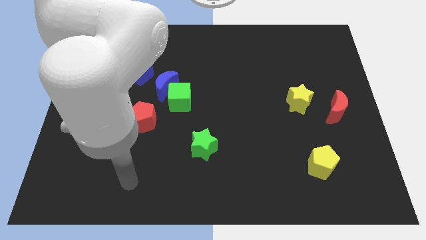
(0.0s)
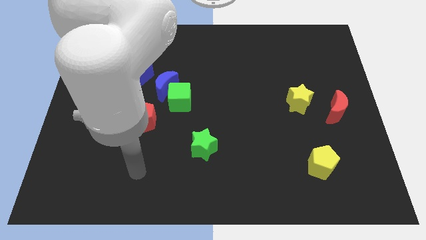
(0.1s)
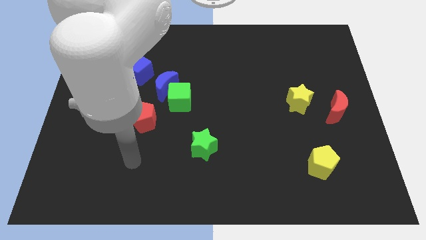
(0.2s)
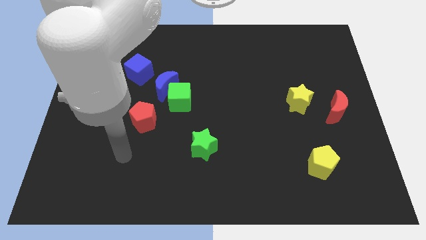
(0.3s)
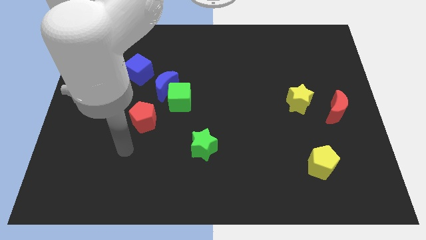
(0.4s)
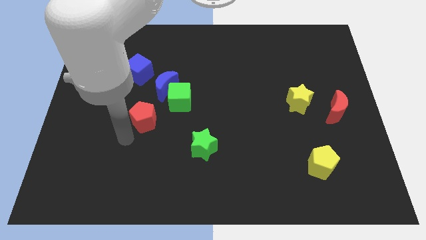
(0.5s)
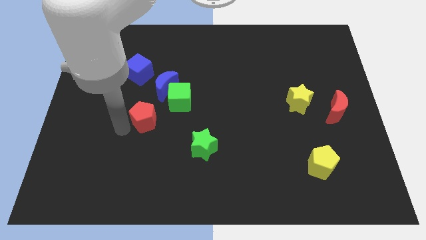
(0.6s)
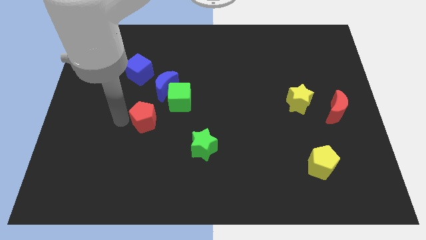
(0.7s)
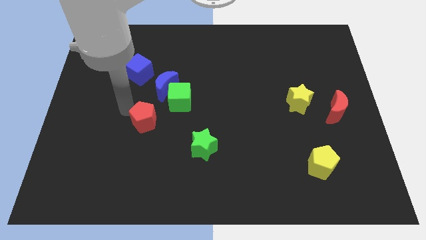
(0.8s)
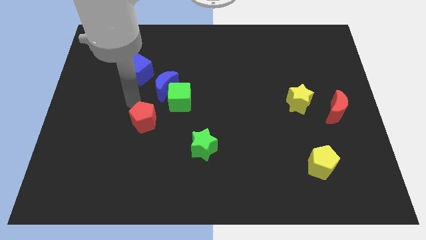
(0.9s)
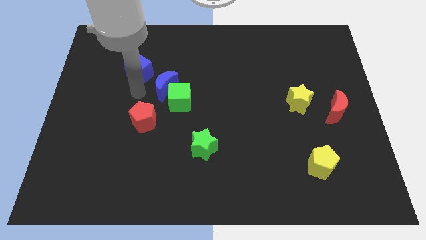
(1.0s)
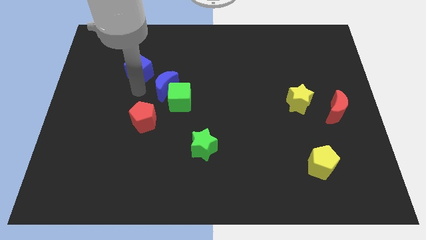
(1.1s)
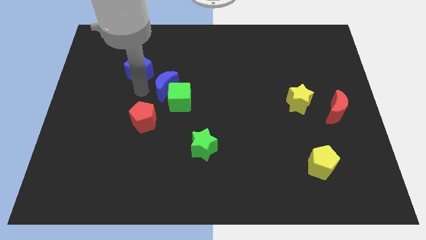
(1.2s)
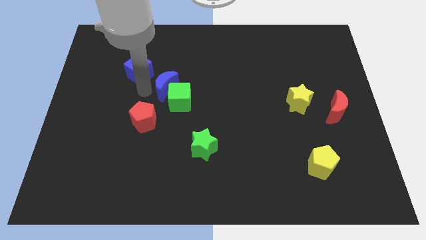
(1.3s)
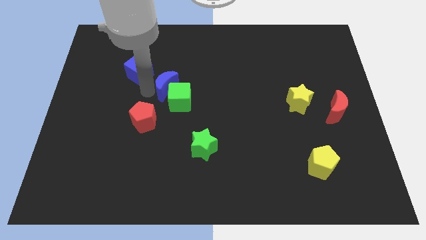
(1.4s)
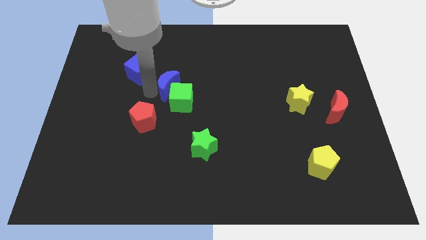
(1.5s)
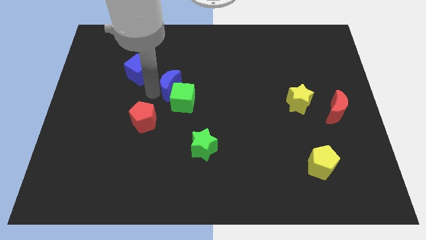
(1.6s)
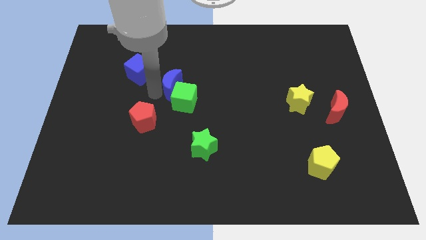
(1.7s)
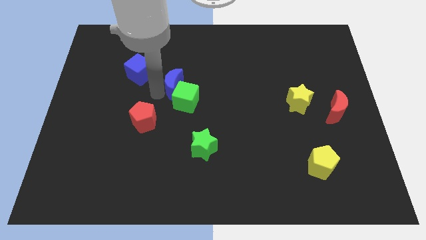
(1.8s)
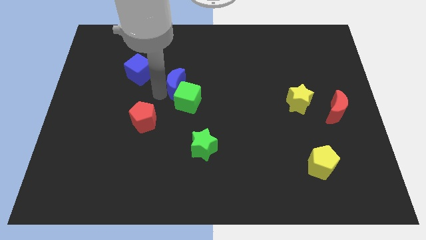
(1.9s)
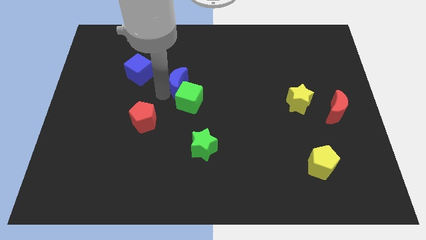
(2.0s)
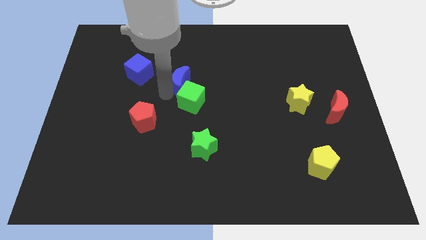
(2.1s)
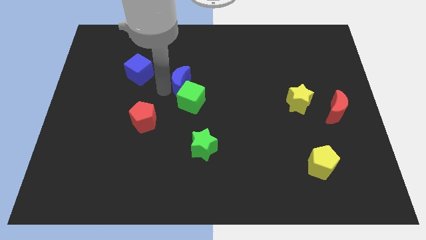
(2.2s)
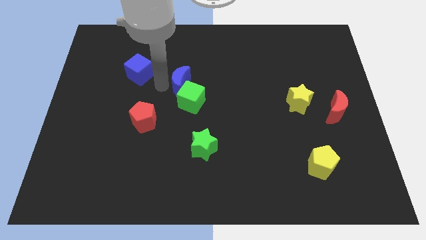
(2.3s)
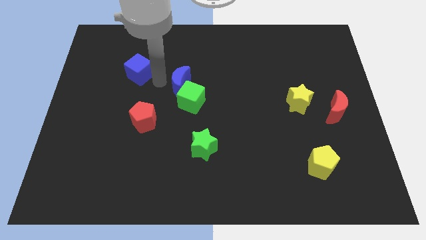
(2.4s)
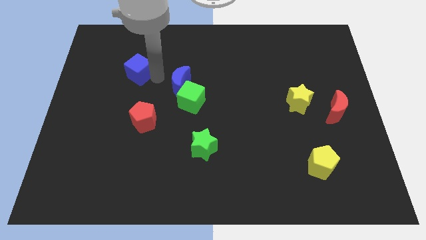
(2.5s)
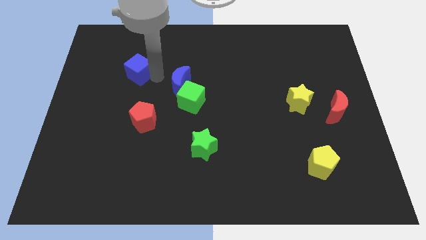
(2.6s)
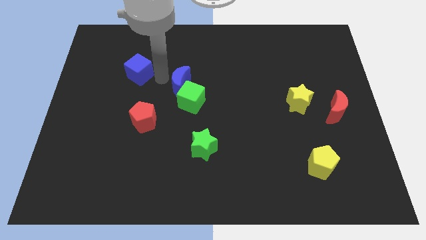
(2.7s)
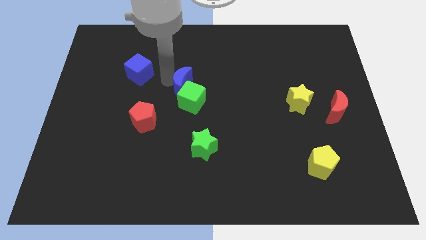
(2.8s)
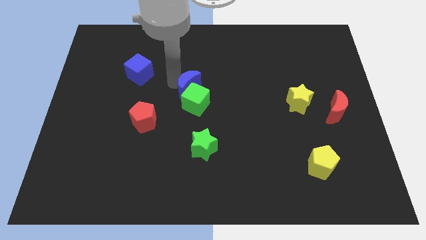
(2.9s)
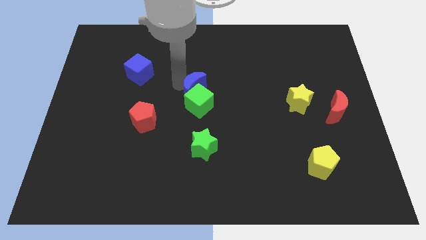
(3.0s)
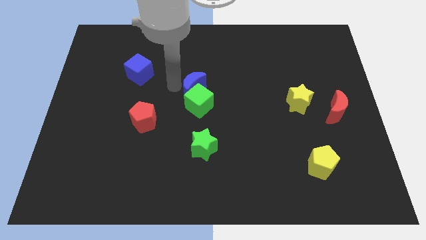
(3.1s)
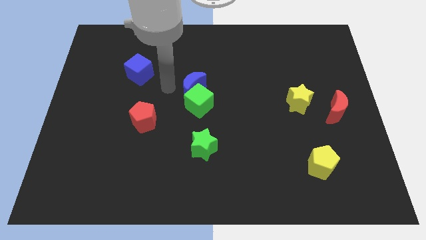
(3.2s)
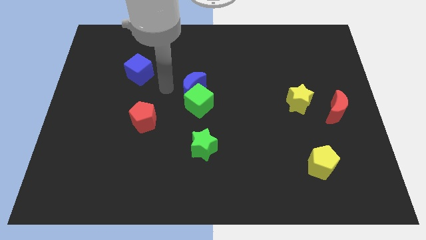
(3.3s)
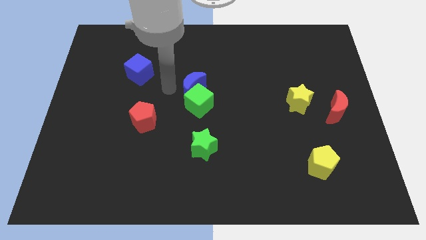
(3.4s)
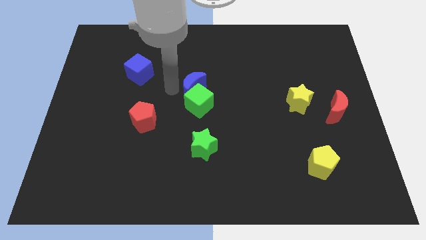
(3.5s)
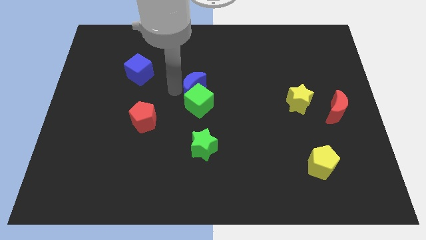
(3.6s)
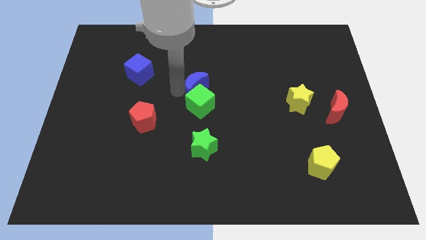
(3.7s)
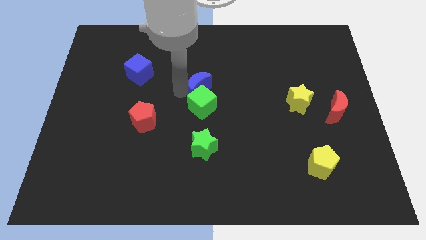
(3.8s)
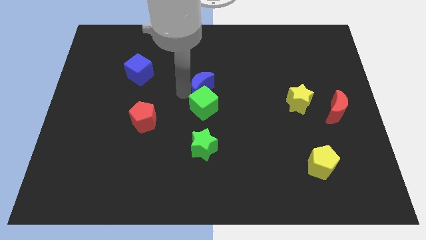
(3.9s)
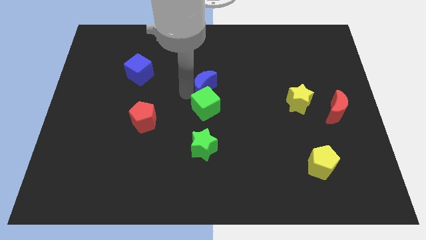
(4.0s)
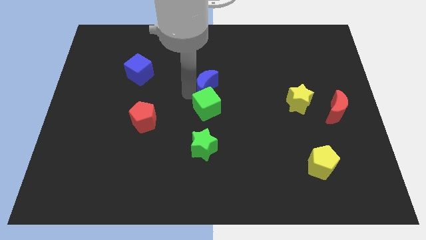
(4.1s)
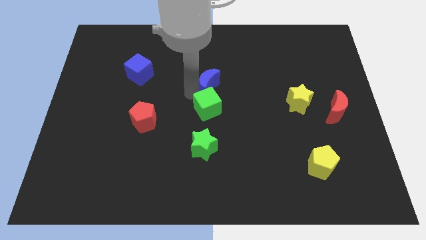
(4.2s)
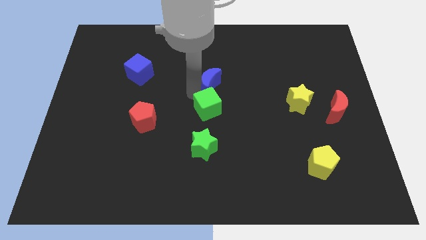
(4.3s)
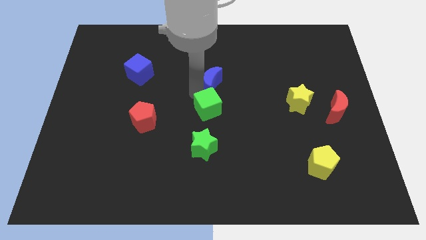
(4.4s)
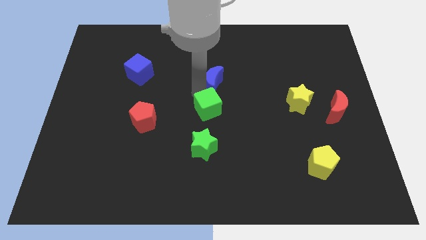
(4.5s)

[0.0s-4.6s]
move the blue moon away from the green cube and blue cube

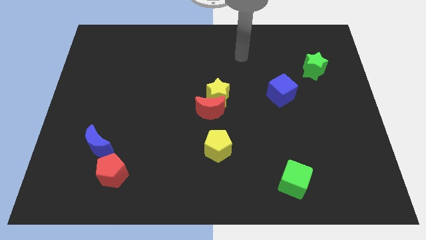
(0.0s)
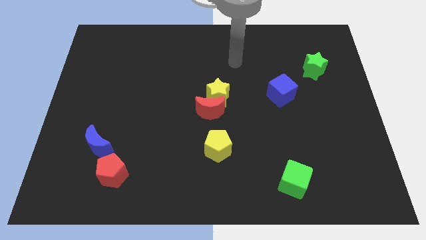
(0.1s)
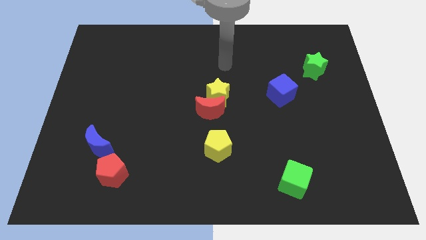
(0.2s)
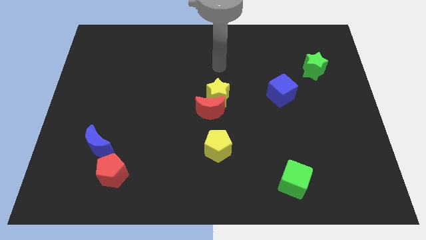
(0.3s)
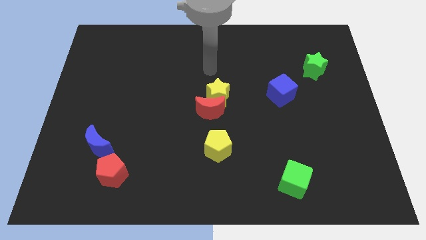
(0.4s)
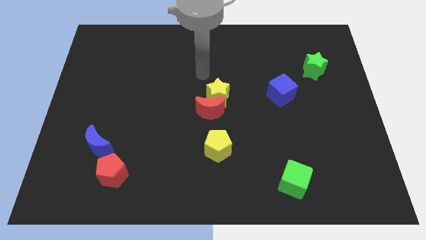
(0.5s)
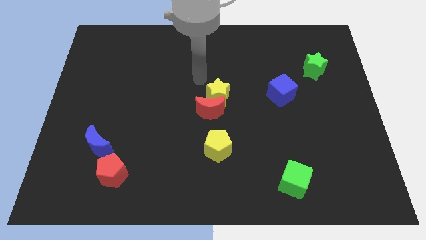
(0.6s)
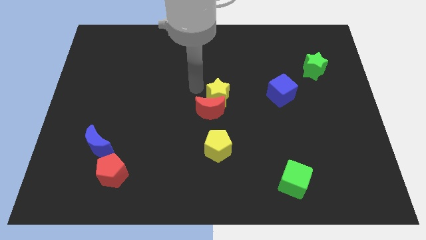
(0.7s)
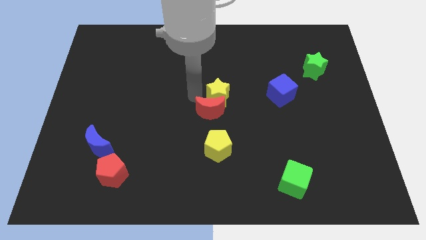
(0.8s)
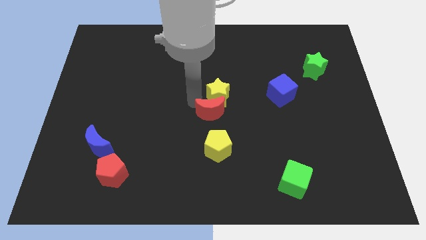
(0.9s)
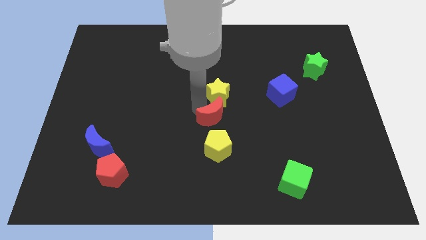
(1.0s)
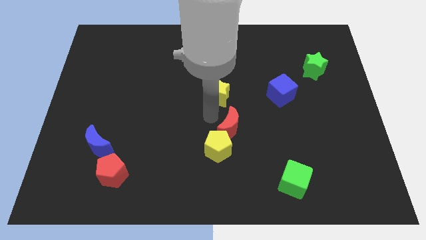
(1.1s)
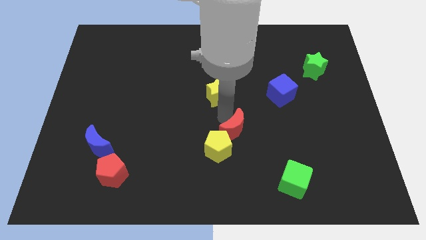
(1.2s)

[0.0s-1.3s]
separate the yellow star from the red moon

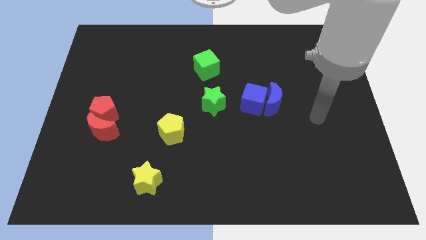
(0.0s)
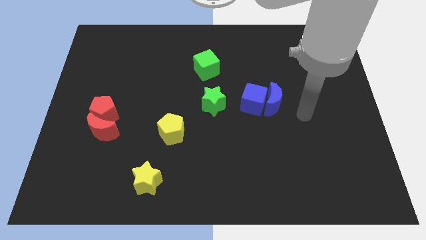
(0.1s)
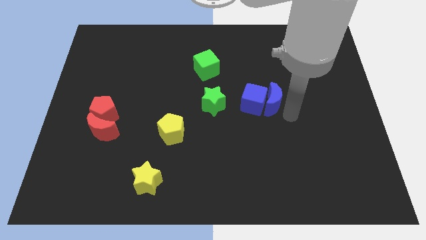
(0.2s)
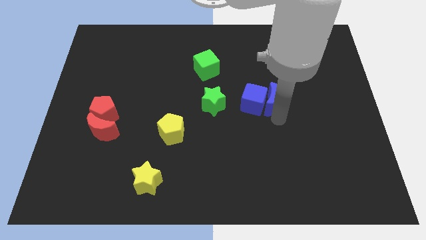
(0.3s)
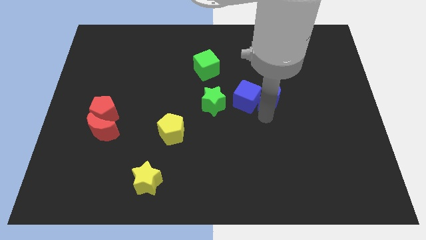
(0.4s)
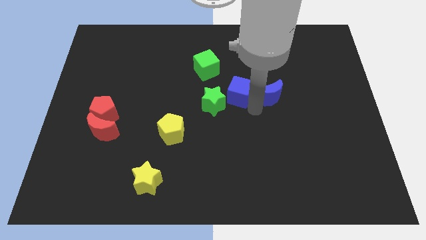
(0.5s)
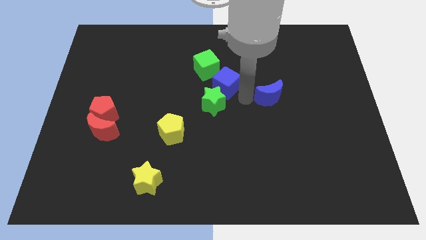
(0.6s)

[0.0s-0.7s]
pull the blue moon apart from the blue cube

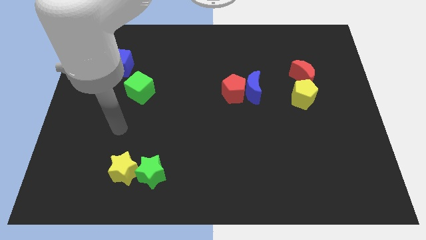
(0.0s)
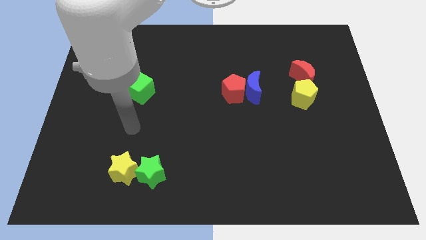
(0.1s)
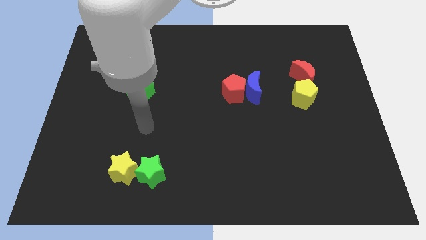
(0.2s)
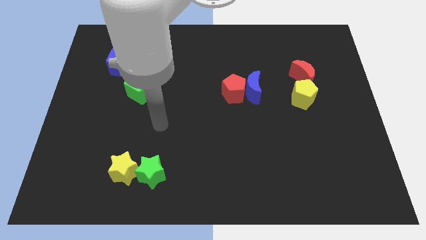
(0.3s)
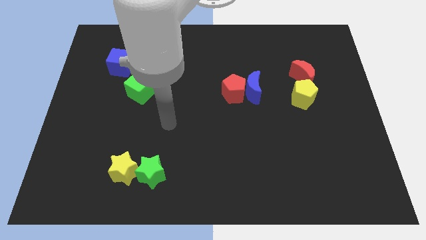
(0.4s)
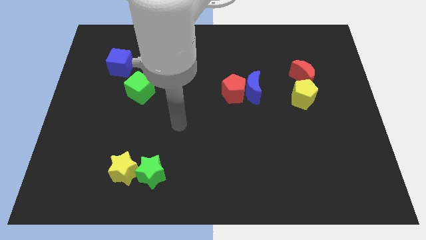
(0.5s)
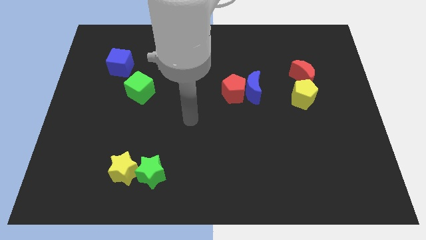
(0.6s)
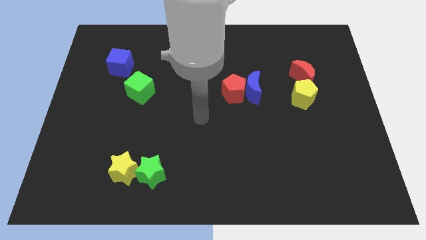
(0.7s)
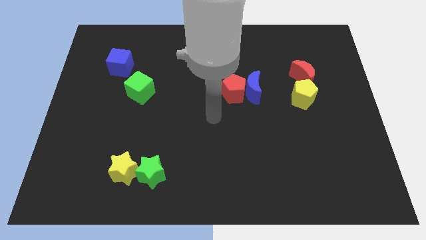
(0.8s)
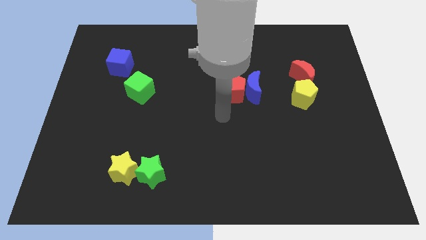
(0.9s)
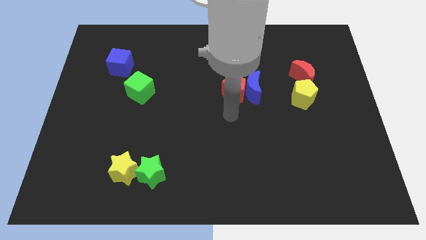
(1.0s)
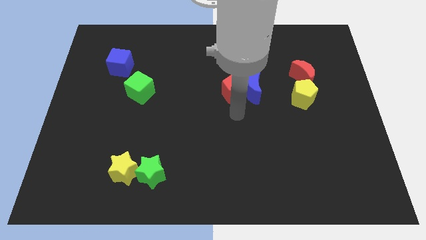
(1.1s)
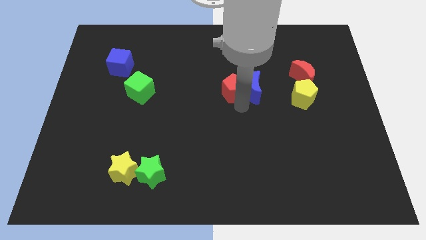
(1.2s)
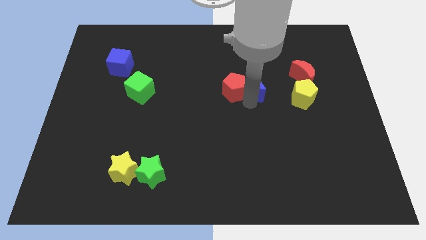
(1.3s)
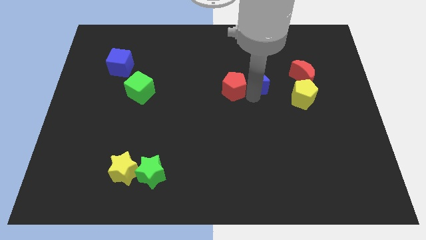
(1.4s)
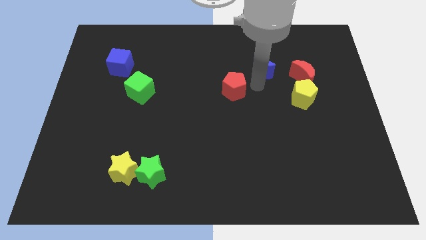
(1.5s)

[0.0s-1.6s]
pull the red pentagon apart from the blue moon

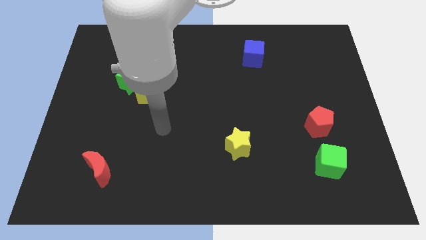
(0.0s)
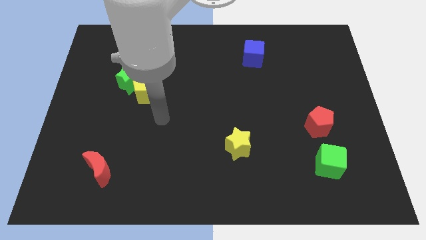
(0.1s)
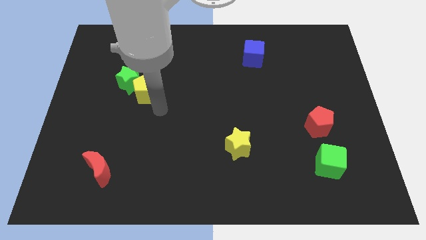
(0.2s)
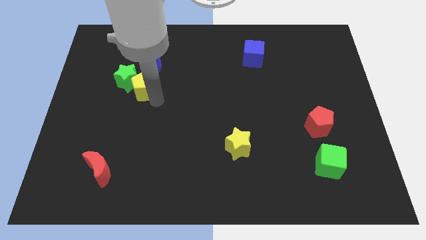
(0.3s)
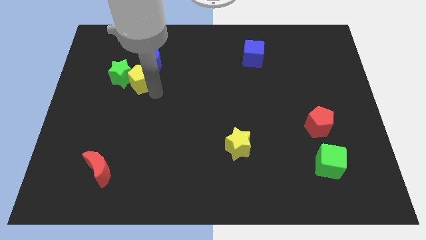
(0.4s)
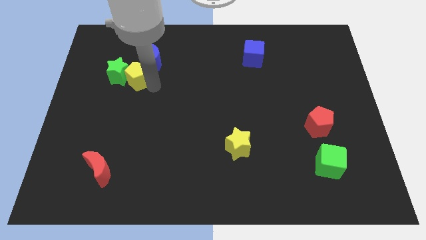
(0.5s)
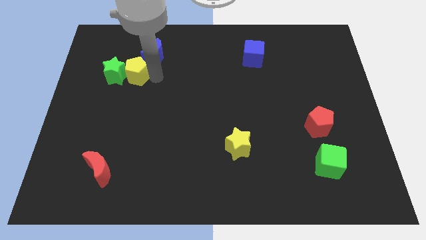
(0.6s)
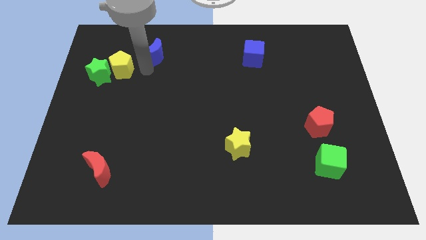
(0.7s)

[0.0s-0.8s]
move the green star away from the yellow pentagon and blue moon
